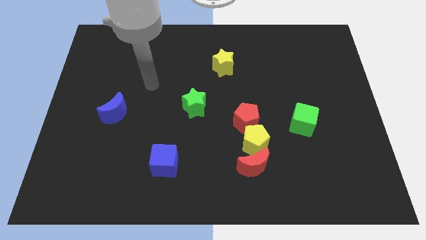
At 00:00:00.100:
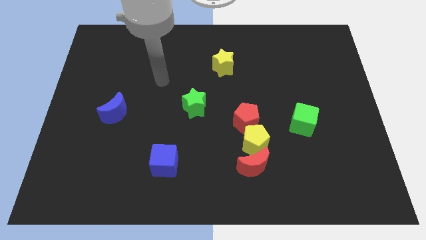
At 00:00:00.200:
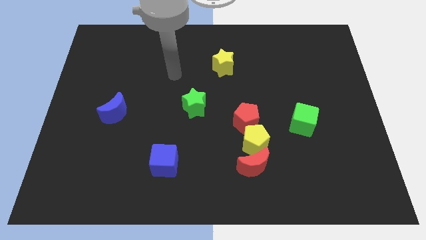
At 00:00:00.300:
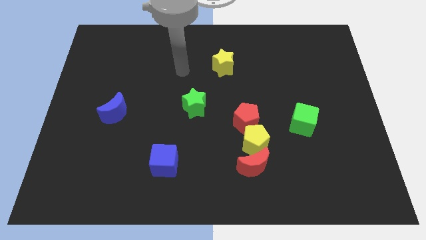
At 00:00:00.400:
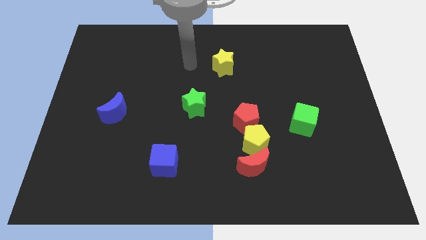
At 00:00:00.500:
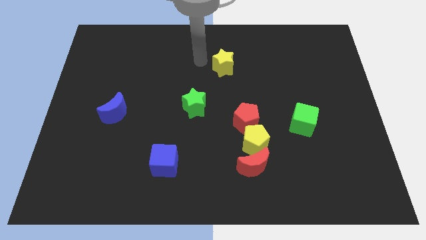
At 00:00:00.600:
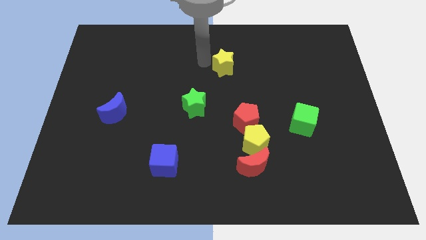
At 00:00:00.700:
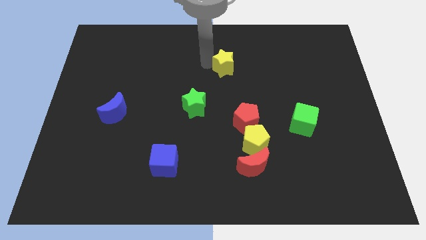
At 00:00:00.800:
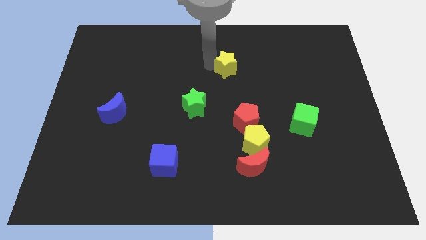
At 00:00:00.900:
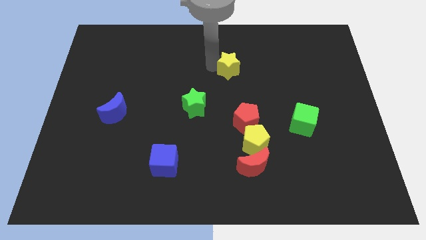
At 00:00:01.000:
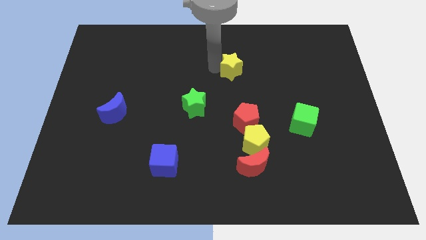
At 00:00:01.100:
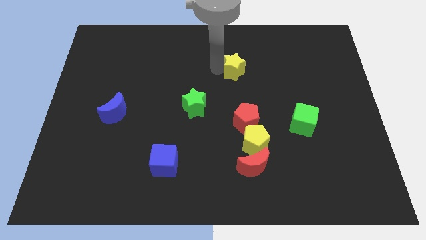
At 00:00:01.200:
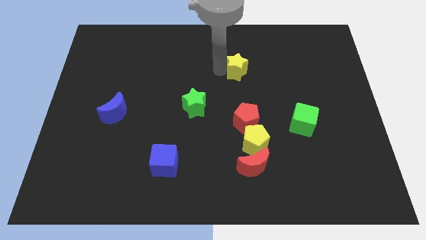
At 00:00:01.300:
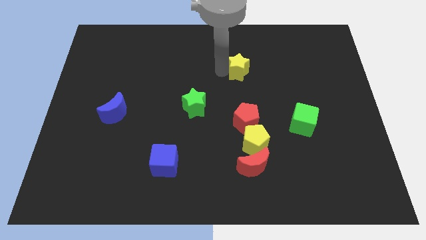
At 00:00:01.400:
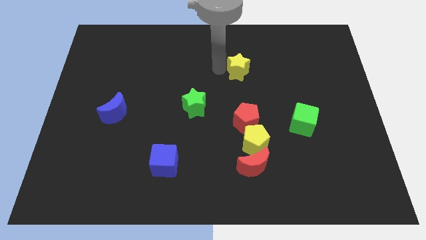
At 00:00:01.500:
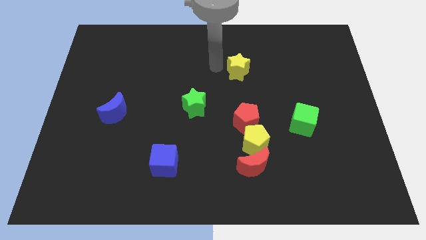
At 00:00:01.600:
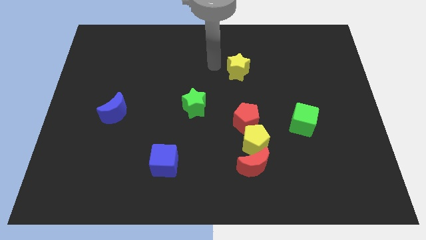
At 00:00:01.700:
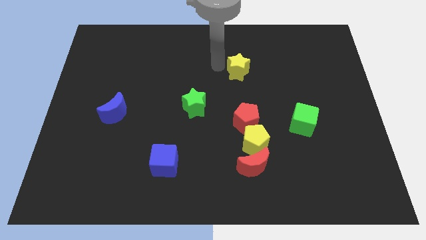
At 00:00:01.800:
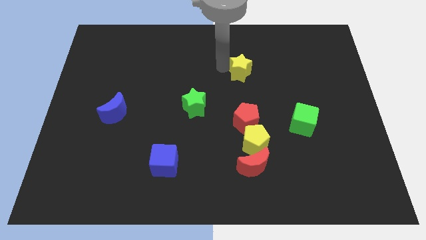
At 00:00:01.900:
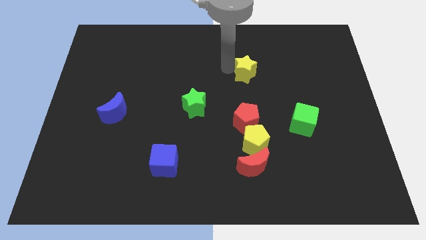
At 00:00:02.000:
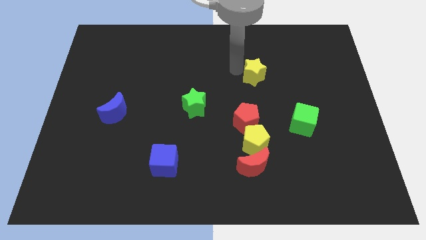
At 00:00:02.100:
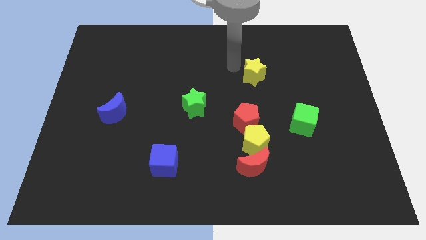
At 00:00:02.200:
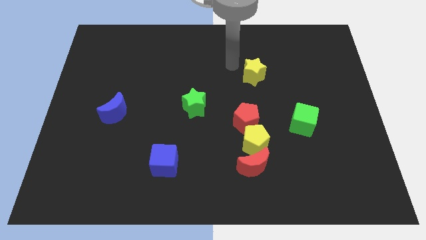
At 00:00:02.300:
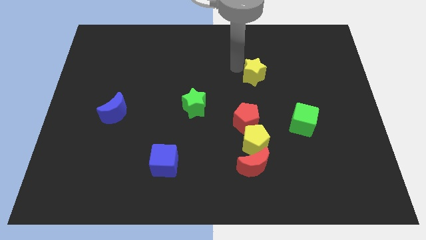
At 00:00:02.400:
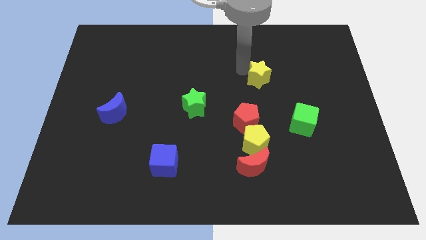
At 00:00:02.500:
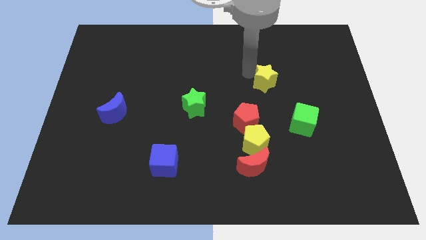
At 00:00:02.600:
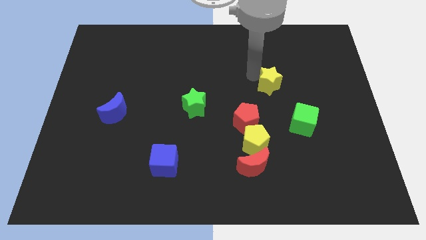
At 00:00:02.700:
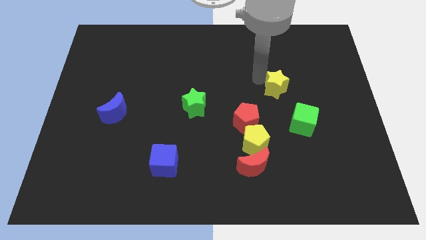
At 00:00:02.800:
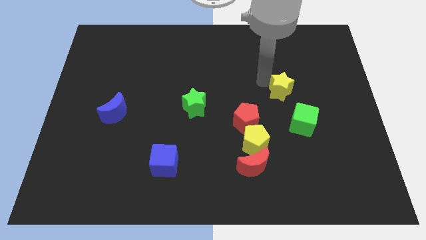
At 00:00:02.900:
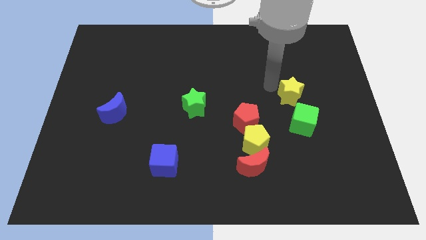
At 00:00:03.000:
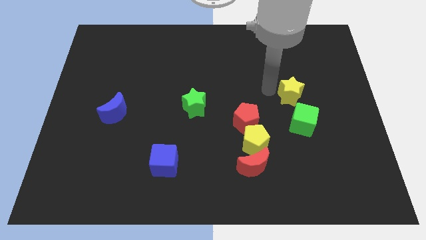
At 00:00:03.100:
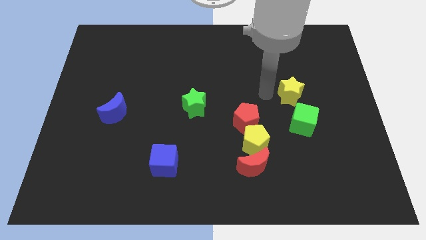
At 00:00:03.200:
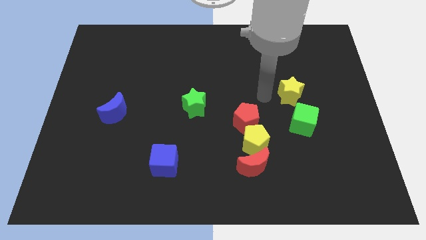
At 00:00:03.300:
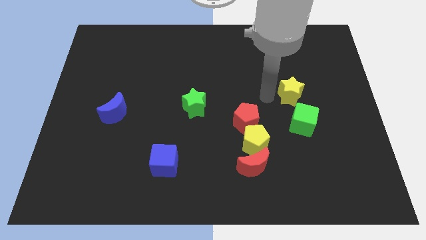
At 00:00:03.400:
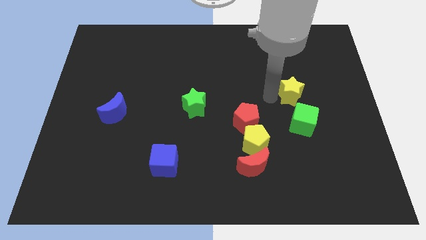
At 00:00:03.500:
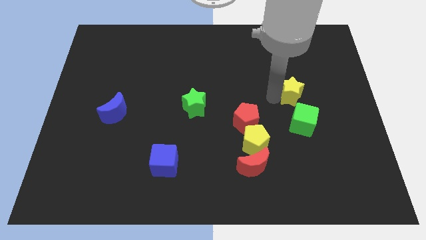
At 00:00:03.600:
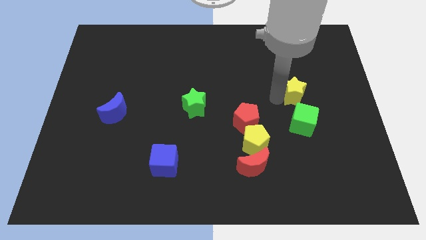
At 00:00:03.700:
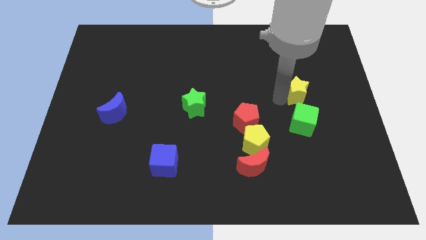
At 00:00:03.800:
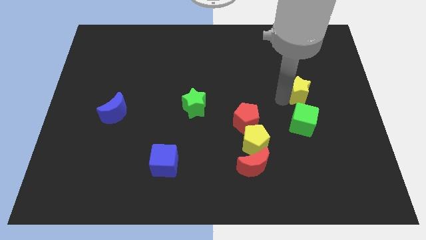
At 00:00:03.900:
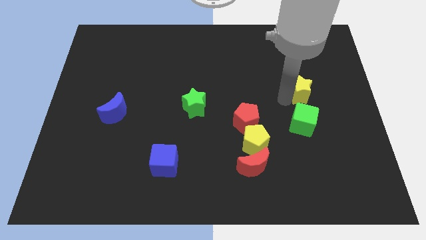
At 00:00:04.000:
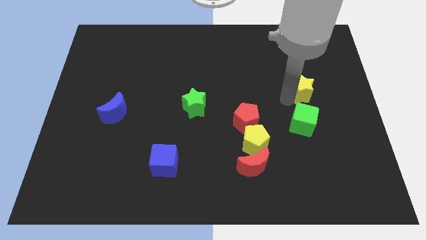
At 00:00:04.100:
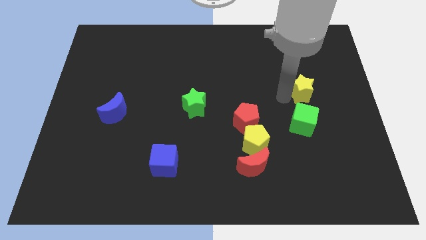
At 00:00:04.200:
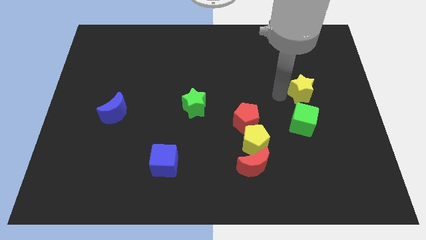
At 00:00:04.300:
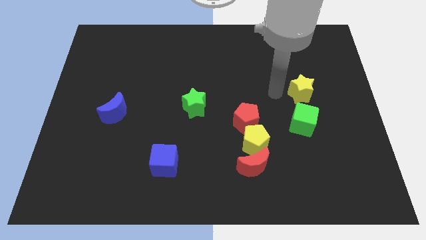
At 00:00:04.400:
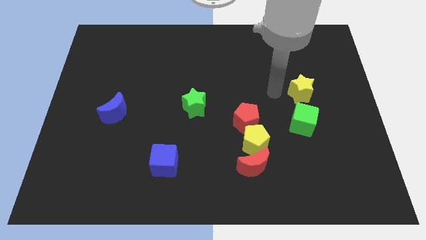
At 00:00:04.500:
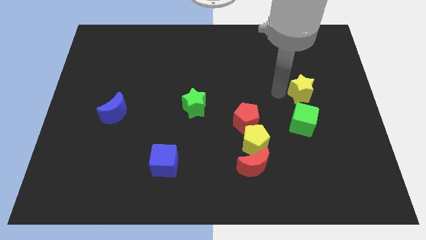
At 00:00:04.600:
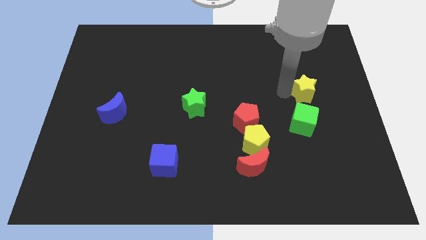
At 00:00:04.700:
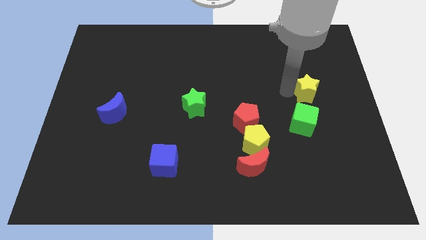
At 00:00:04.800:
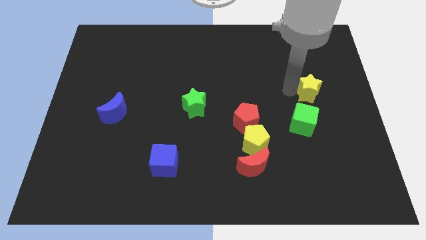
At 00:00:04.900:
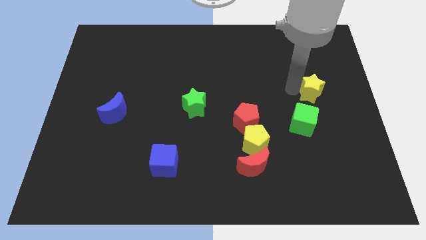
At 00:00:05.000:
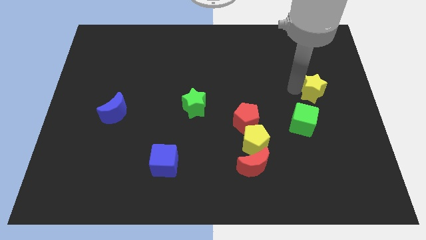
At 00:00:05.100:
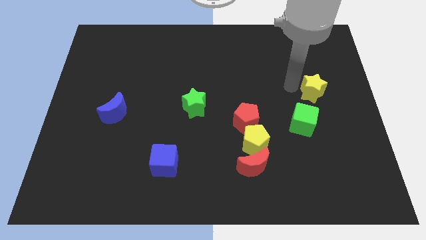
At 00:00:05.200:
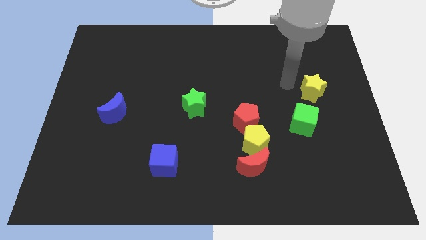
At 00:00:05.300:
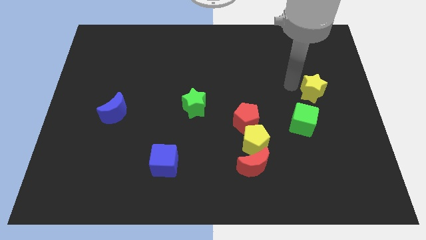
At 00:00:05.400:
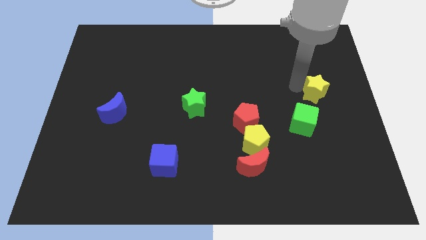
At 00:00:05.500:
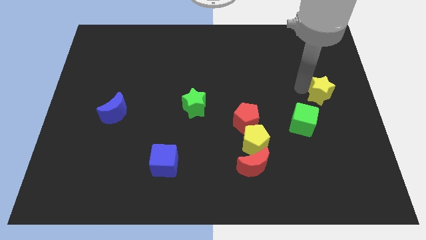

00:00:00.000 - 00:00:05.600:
slide the yellow star to the right side

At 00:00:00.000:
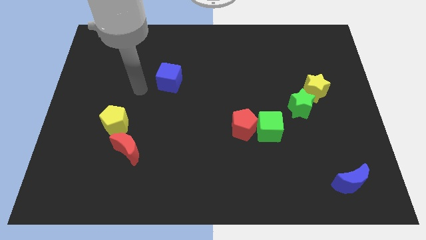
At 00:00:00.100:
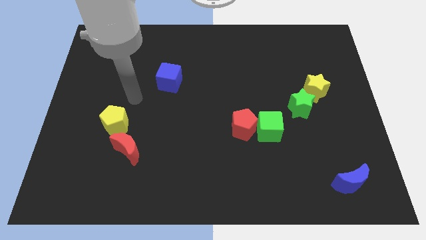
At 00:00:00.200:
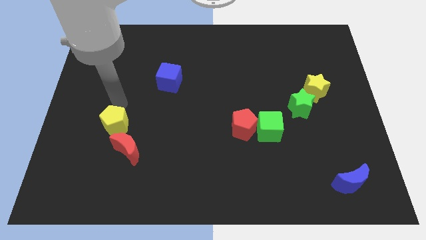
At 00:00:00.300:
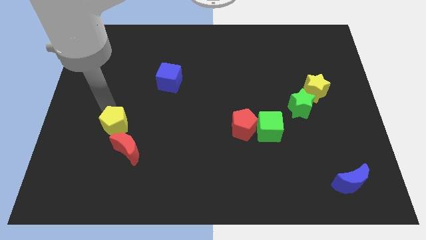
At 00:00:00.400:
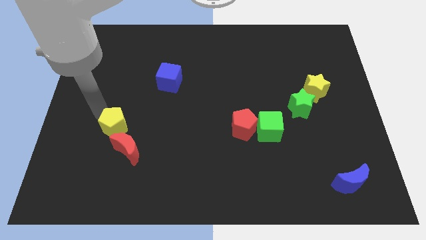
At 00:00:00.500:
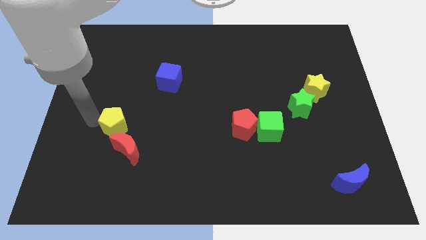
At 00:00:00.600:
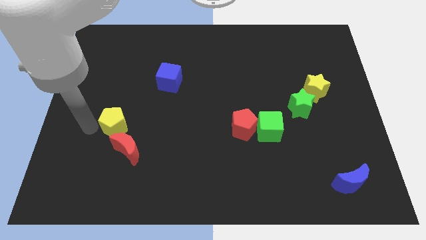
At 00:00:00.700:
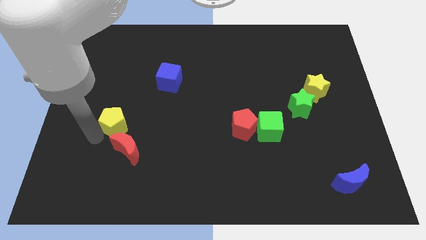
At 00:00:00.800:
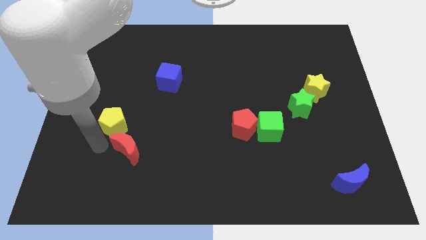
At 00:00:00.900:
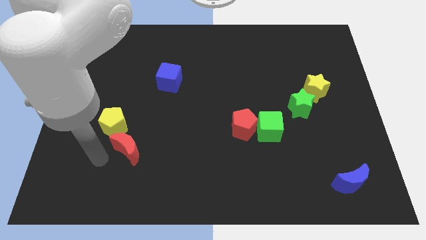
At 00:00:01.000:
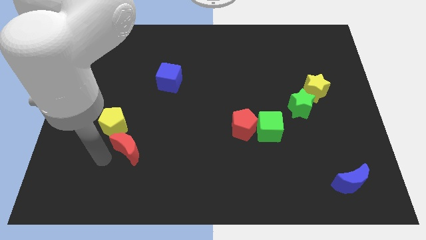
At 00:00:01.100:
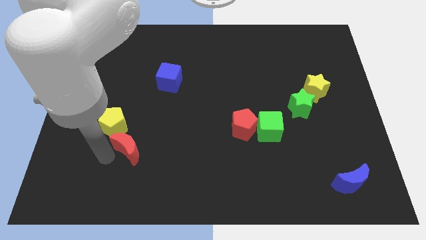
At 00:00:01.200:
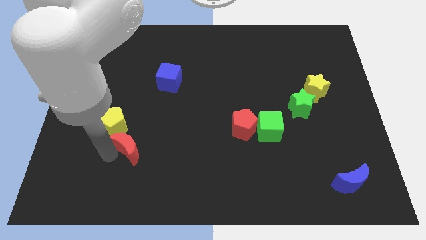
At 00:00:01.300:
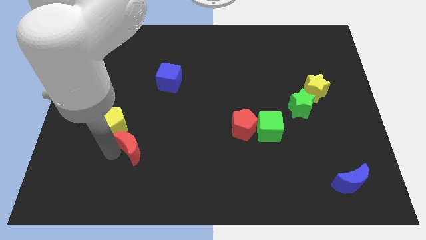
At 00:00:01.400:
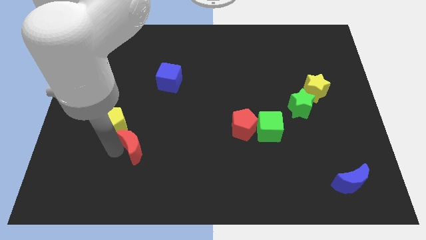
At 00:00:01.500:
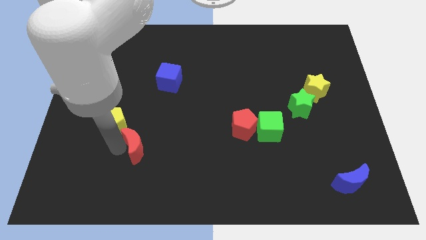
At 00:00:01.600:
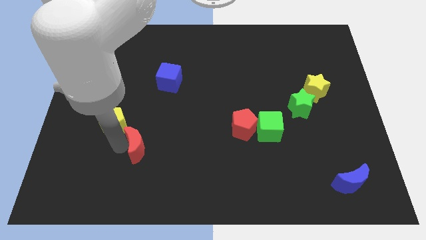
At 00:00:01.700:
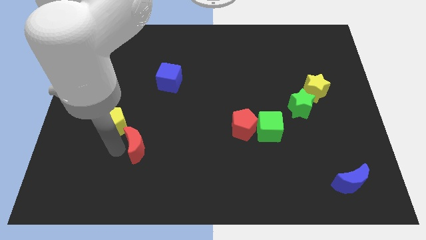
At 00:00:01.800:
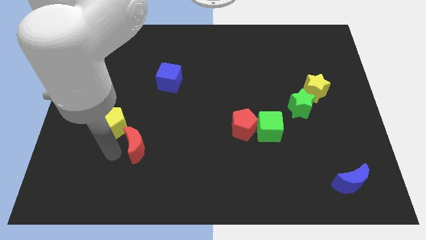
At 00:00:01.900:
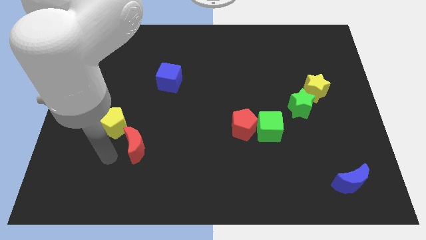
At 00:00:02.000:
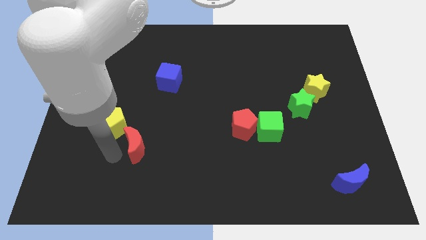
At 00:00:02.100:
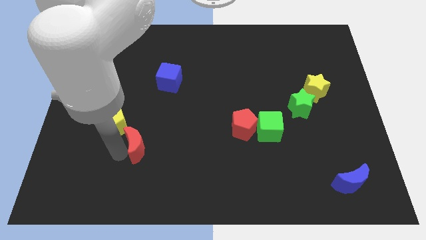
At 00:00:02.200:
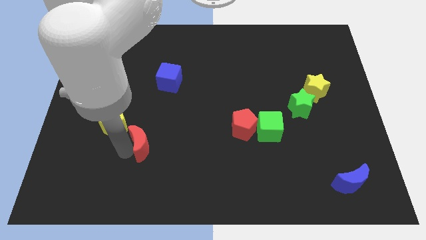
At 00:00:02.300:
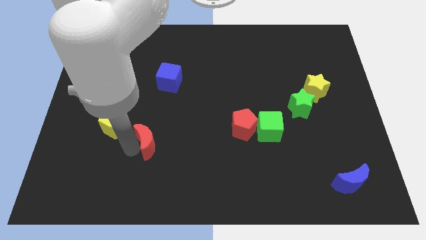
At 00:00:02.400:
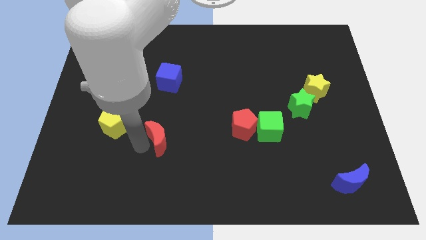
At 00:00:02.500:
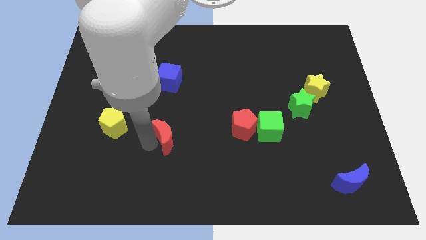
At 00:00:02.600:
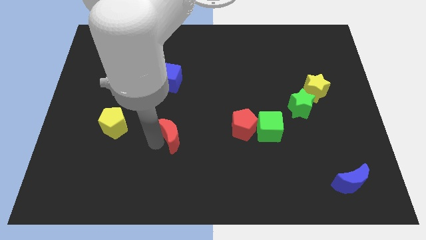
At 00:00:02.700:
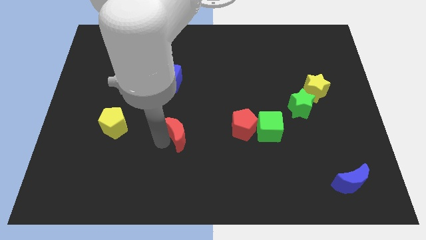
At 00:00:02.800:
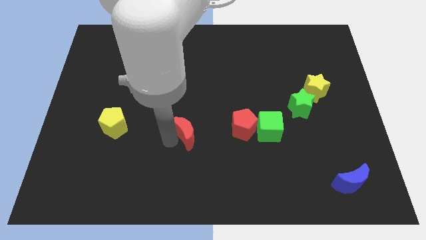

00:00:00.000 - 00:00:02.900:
put the red moon to the middle
